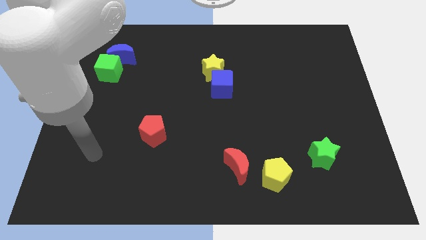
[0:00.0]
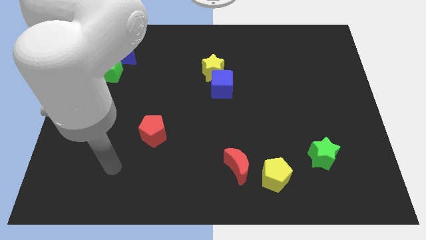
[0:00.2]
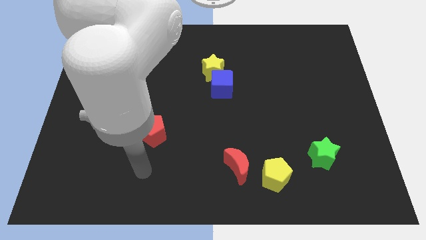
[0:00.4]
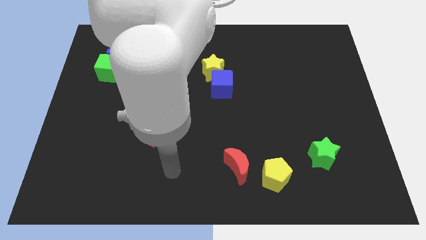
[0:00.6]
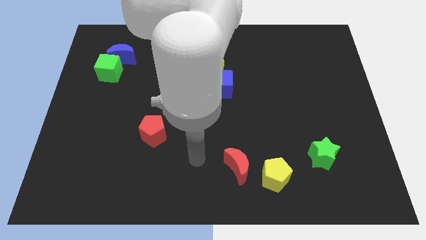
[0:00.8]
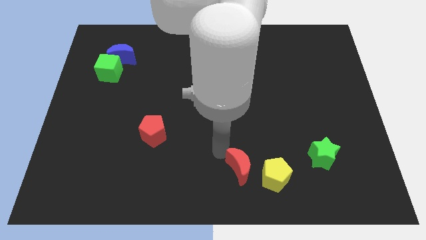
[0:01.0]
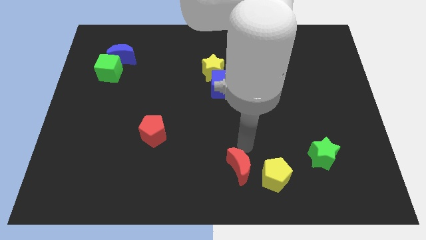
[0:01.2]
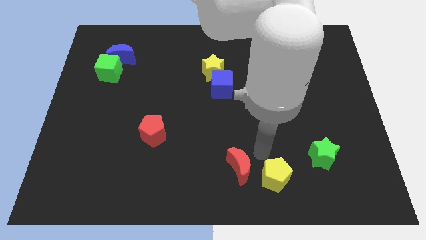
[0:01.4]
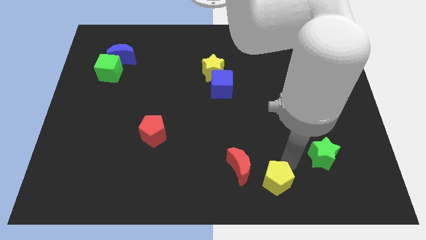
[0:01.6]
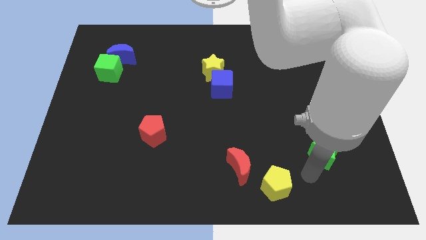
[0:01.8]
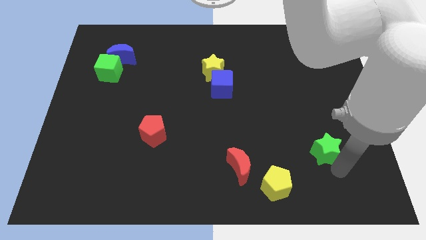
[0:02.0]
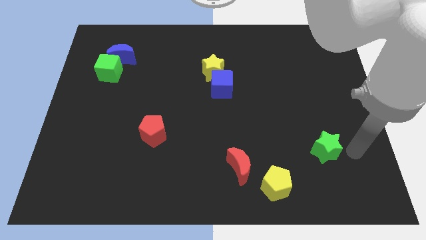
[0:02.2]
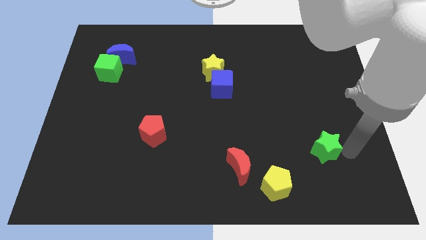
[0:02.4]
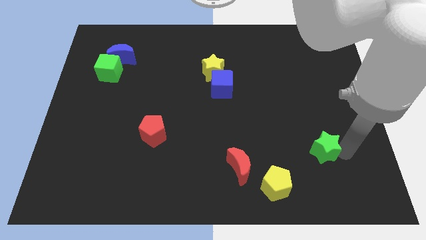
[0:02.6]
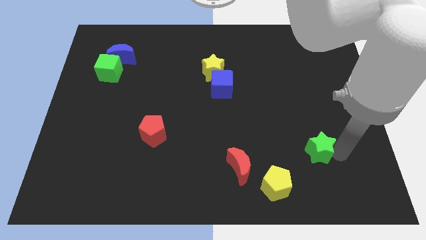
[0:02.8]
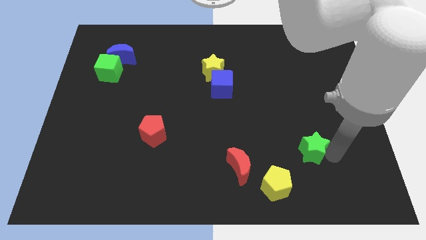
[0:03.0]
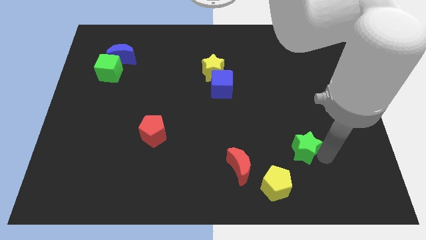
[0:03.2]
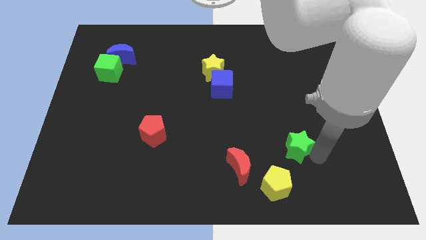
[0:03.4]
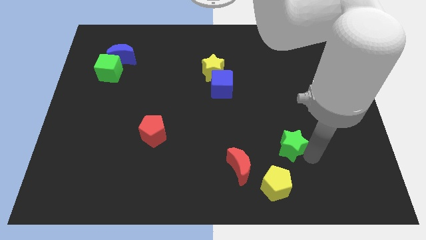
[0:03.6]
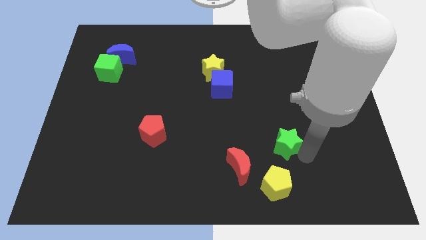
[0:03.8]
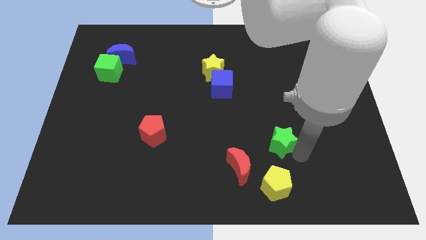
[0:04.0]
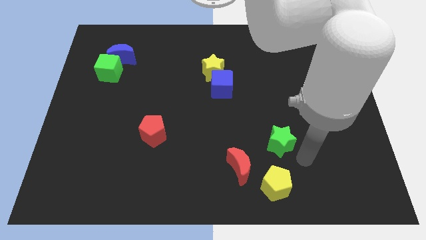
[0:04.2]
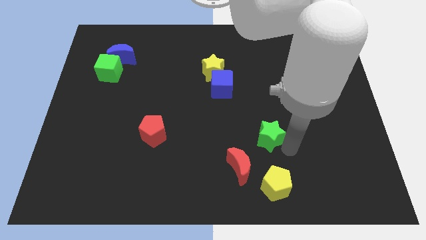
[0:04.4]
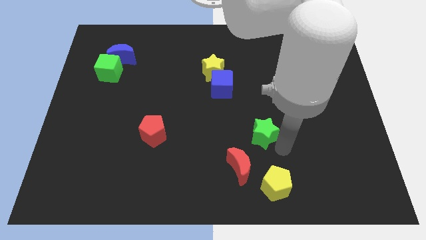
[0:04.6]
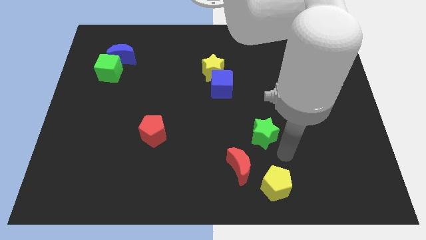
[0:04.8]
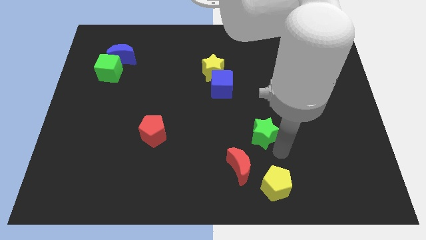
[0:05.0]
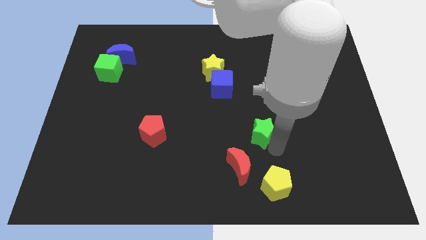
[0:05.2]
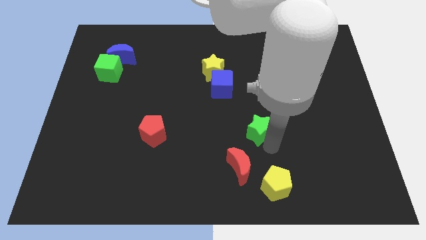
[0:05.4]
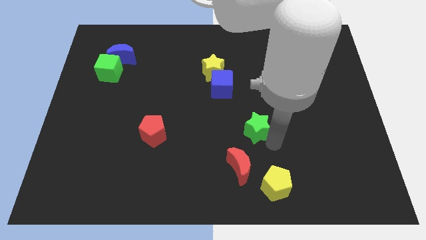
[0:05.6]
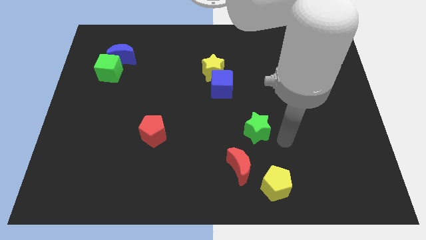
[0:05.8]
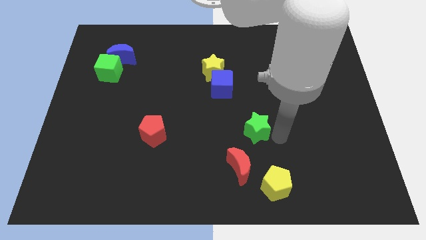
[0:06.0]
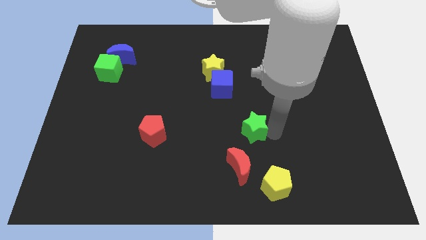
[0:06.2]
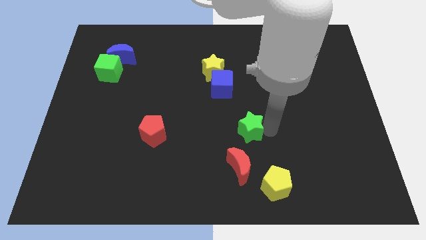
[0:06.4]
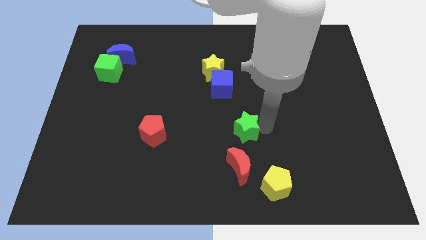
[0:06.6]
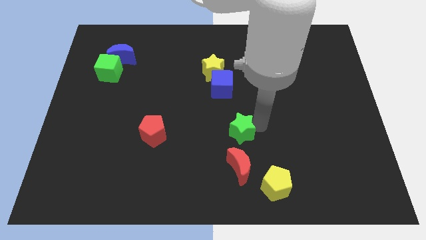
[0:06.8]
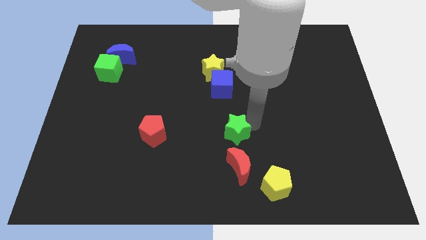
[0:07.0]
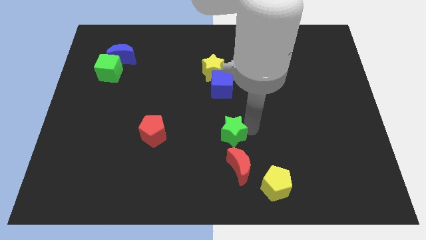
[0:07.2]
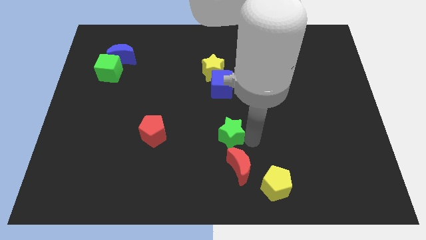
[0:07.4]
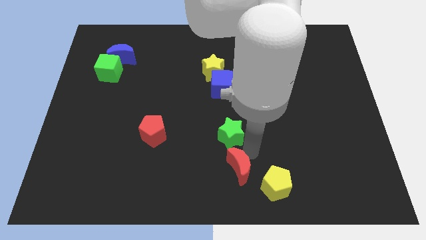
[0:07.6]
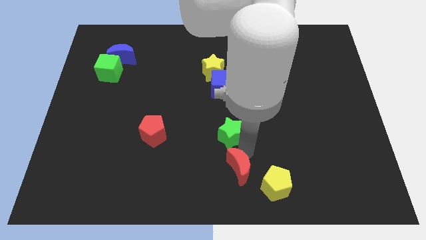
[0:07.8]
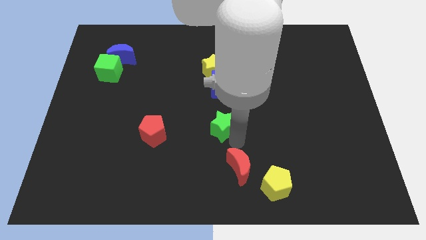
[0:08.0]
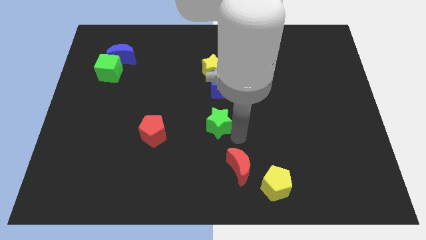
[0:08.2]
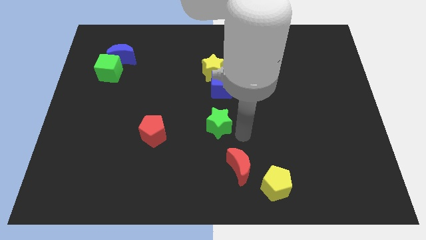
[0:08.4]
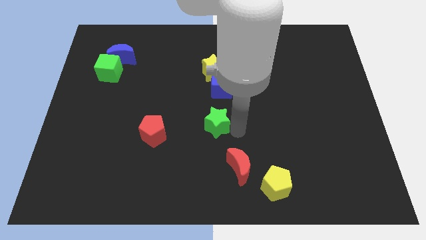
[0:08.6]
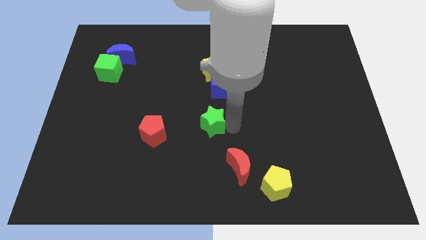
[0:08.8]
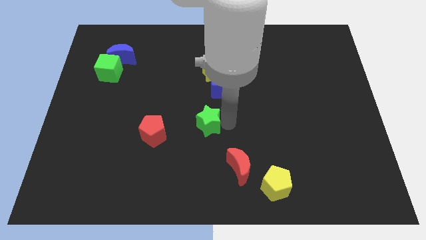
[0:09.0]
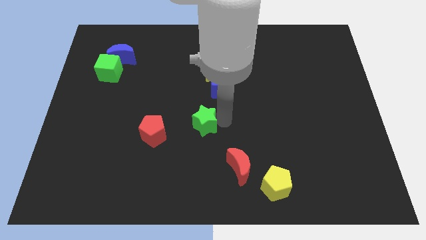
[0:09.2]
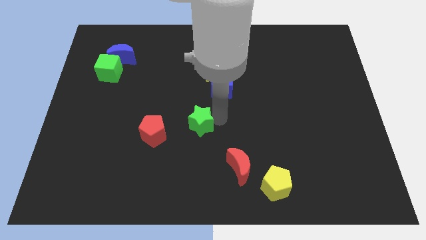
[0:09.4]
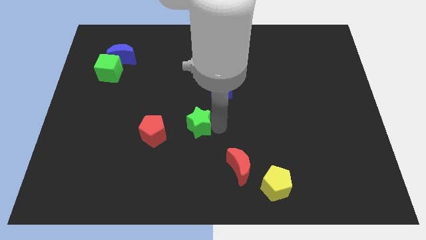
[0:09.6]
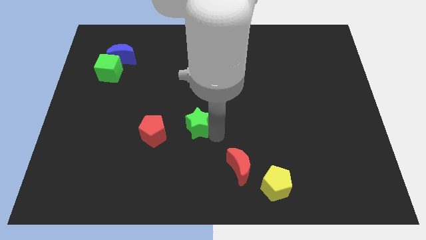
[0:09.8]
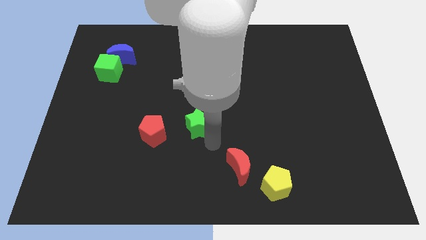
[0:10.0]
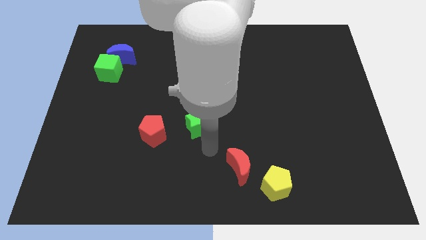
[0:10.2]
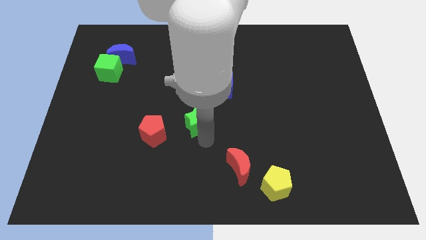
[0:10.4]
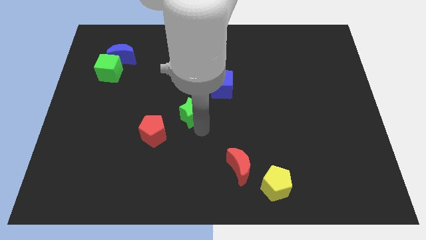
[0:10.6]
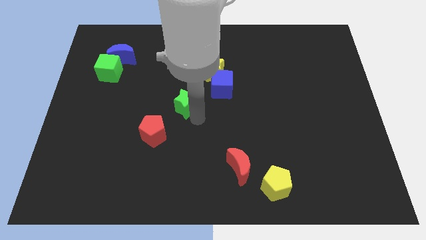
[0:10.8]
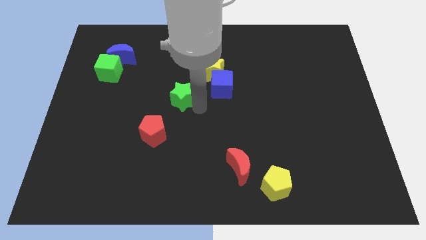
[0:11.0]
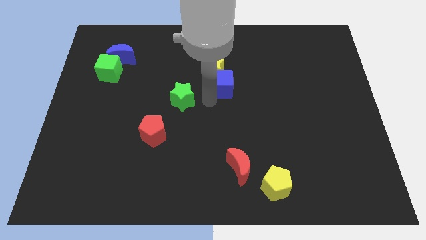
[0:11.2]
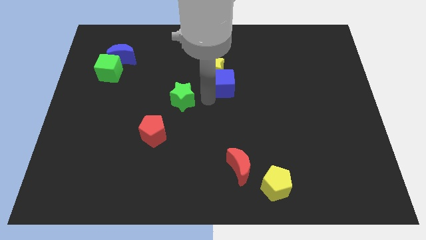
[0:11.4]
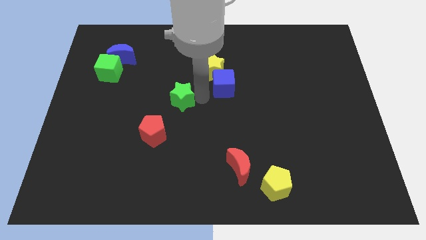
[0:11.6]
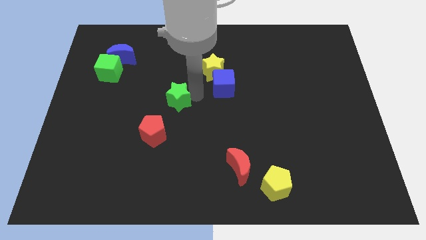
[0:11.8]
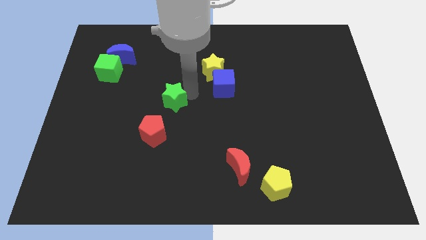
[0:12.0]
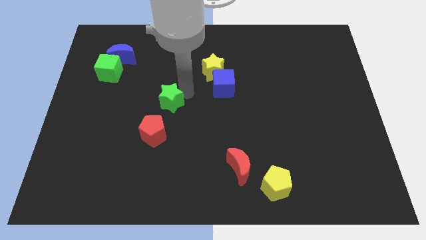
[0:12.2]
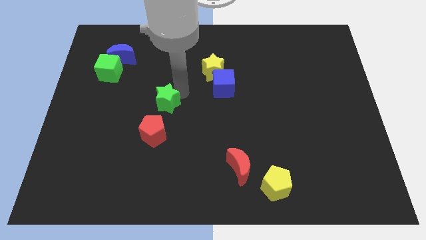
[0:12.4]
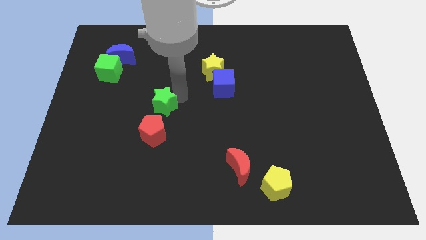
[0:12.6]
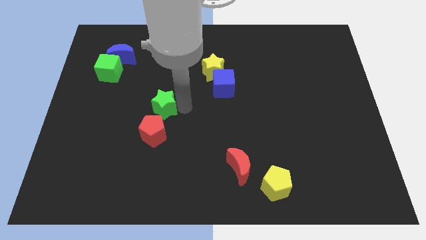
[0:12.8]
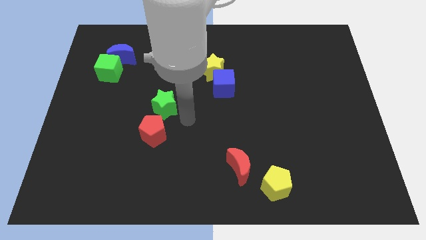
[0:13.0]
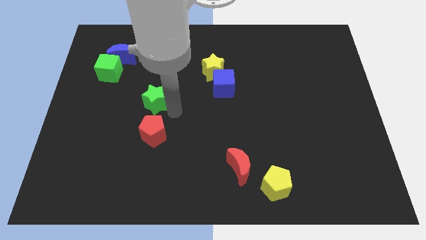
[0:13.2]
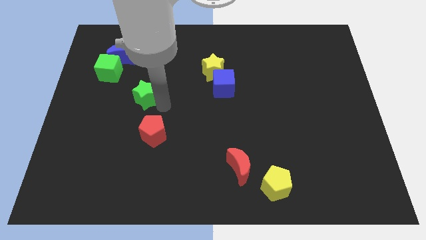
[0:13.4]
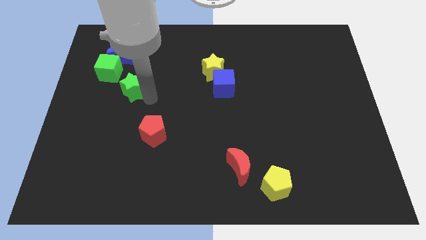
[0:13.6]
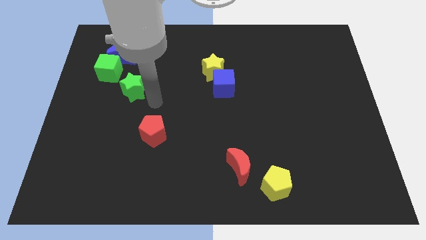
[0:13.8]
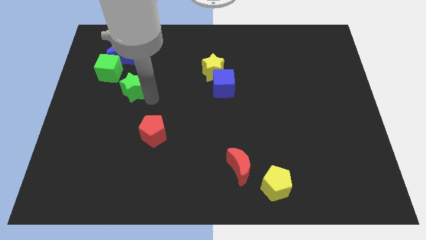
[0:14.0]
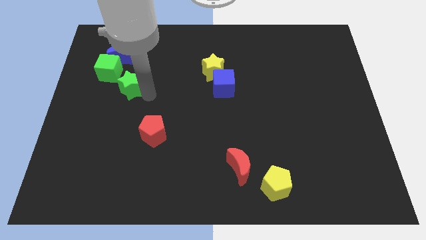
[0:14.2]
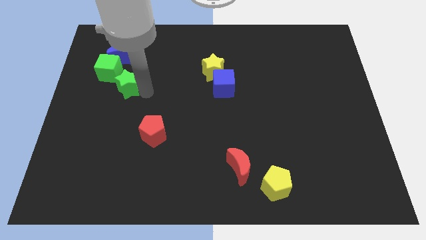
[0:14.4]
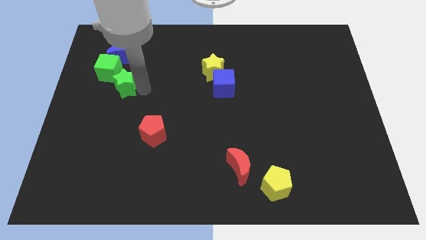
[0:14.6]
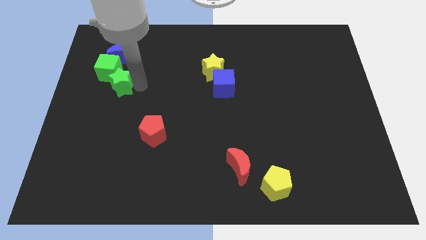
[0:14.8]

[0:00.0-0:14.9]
slide the green star towards the green cube
